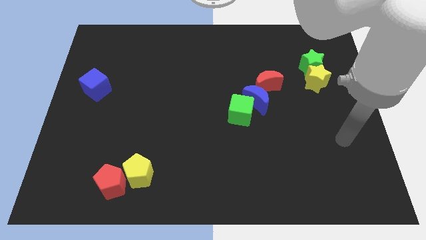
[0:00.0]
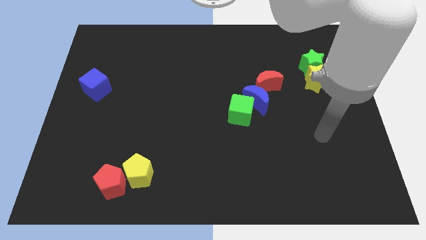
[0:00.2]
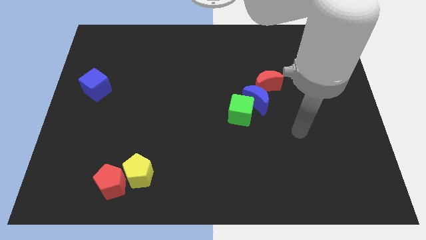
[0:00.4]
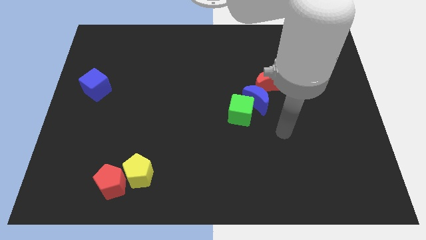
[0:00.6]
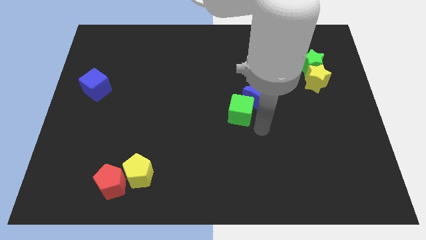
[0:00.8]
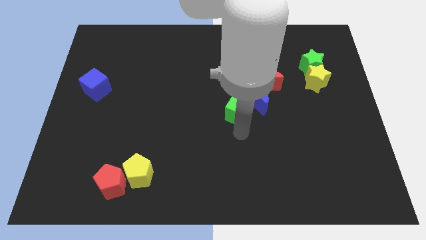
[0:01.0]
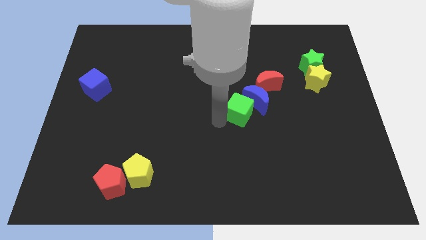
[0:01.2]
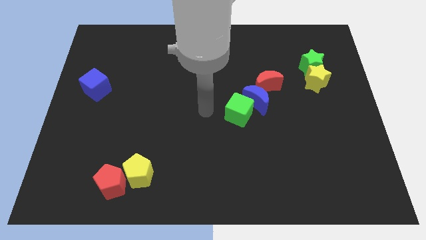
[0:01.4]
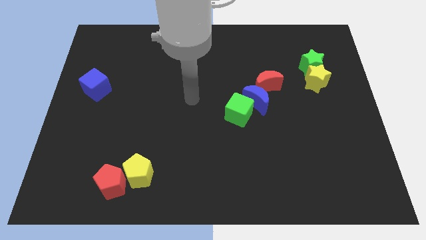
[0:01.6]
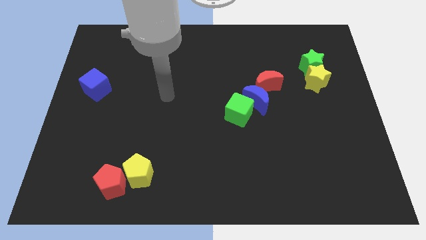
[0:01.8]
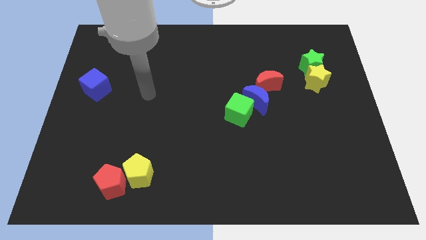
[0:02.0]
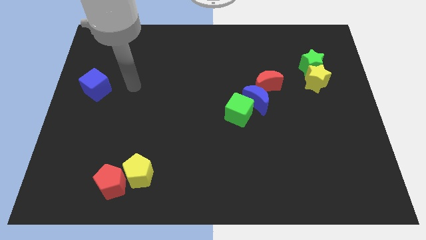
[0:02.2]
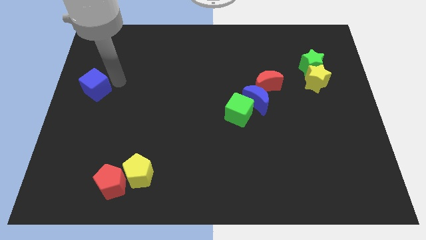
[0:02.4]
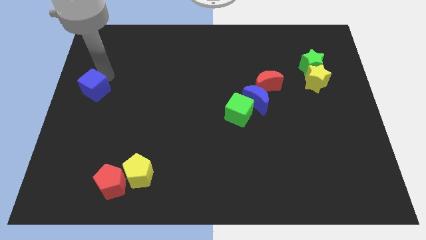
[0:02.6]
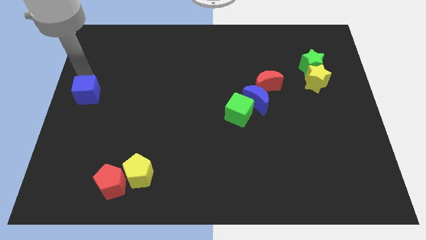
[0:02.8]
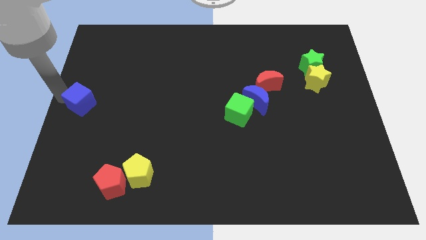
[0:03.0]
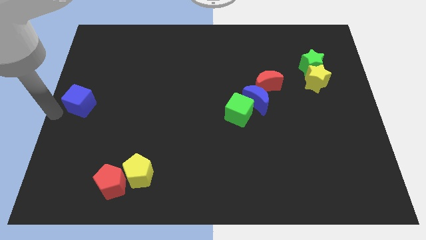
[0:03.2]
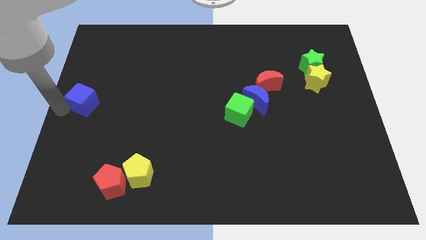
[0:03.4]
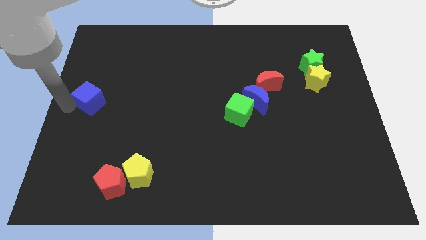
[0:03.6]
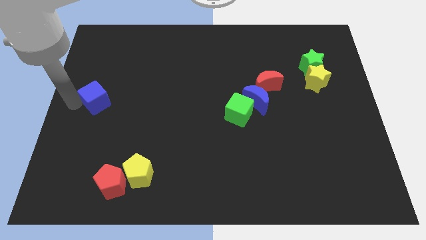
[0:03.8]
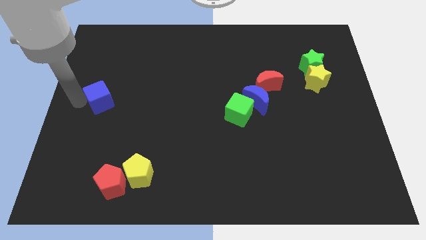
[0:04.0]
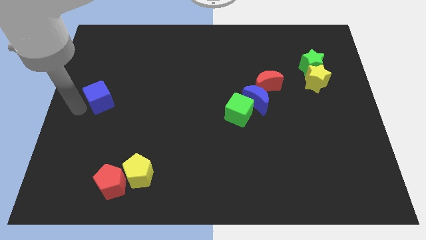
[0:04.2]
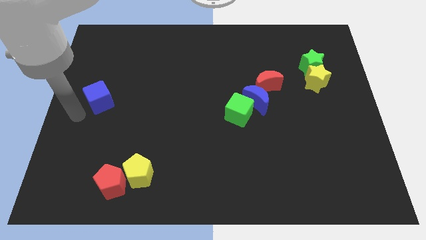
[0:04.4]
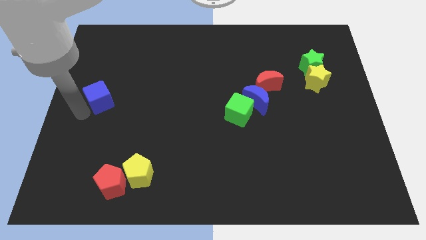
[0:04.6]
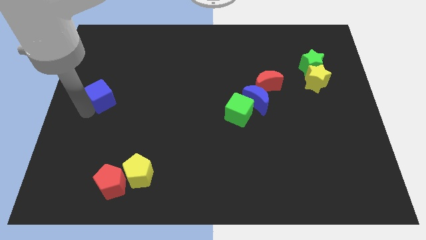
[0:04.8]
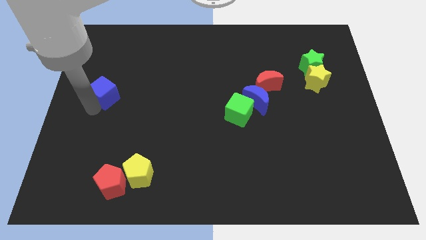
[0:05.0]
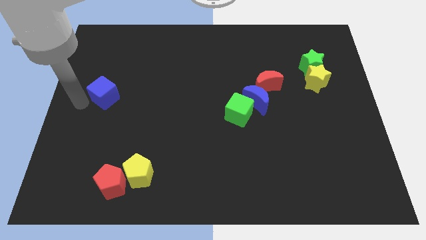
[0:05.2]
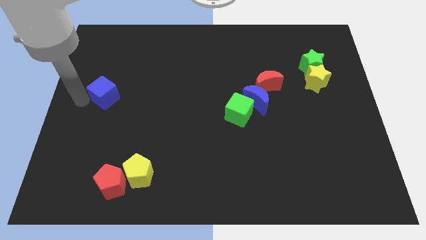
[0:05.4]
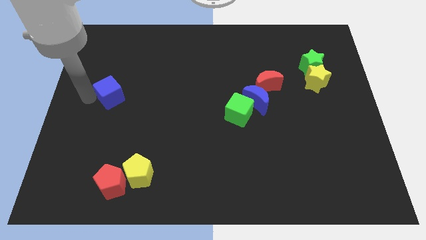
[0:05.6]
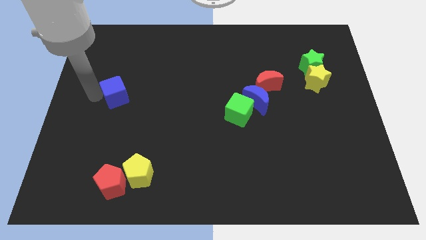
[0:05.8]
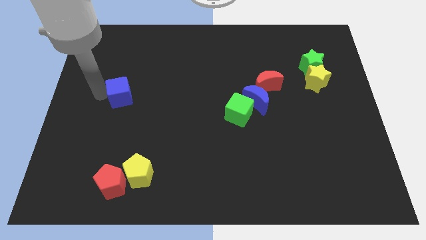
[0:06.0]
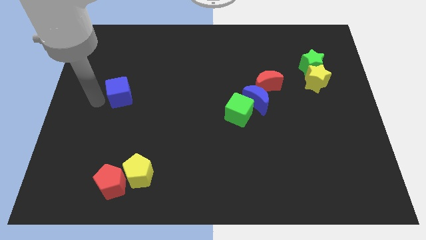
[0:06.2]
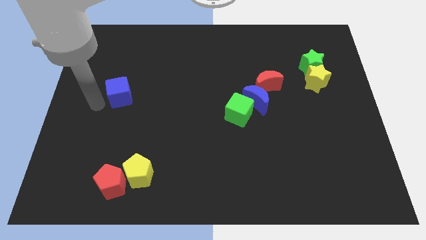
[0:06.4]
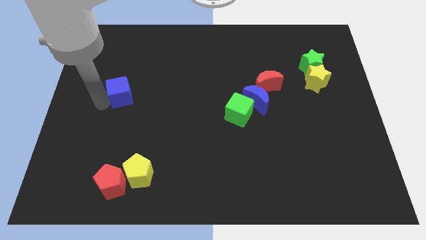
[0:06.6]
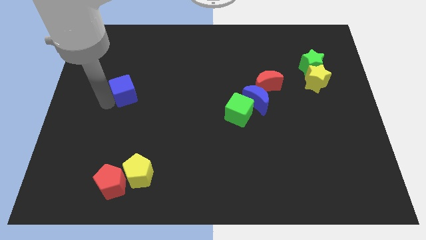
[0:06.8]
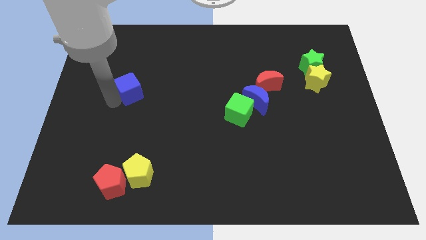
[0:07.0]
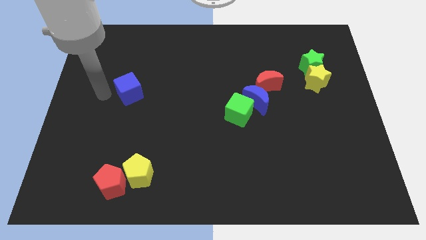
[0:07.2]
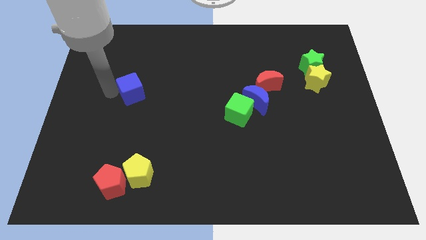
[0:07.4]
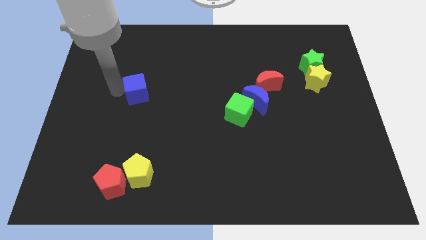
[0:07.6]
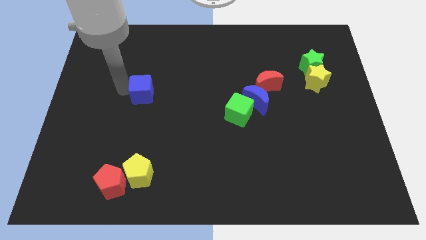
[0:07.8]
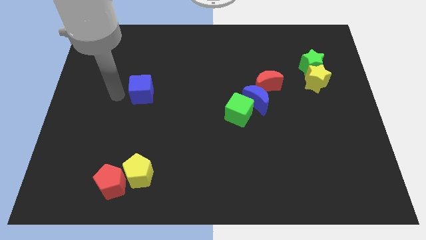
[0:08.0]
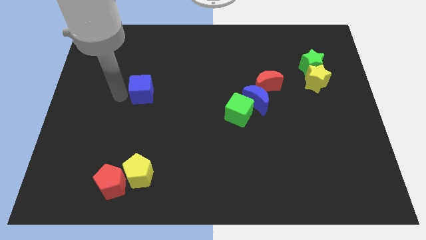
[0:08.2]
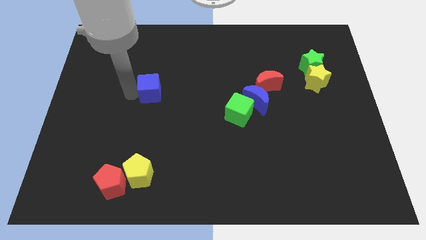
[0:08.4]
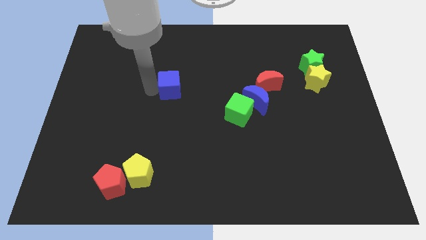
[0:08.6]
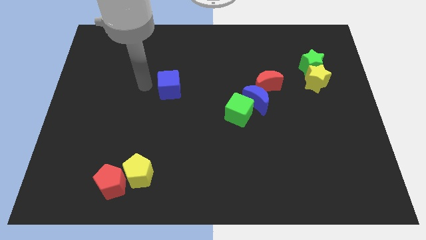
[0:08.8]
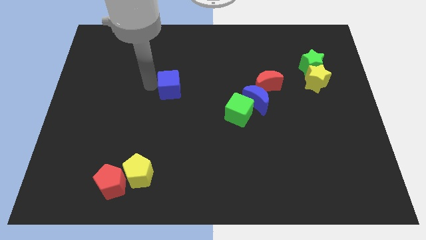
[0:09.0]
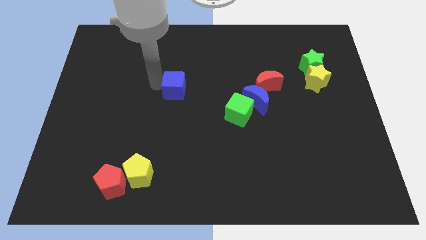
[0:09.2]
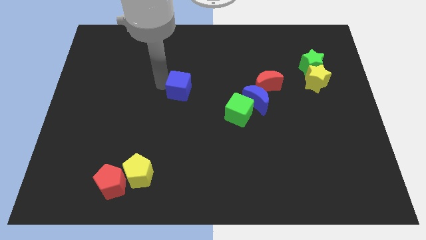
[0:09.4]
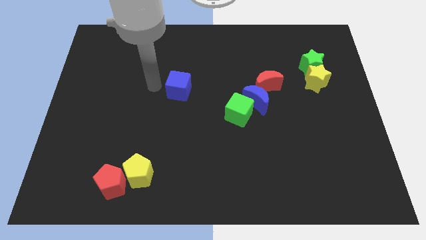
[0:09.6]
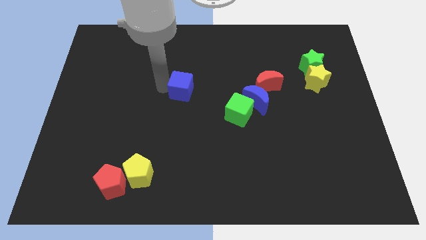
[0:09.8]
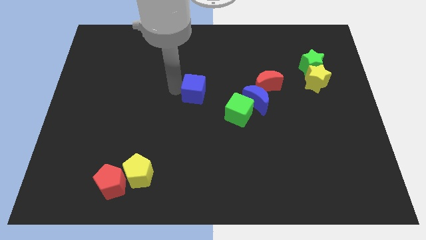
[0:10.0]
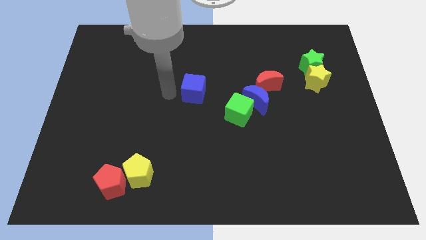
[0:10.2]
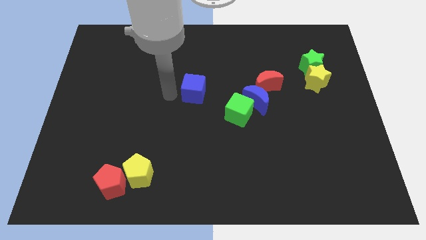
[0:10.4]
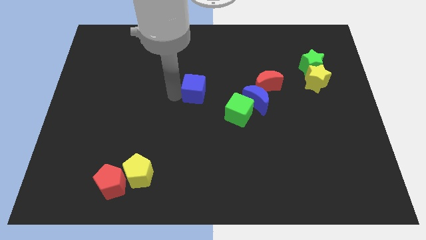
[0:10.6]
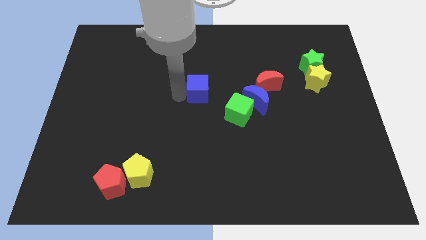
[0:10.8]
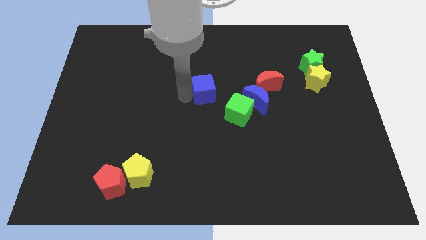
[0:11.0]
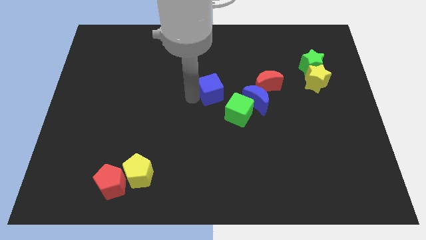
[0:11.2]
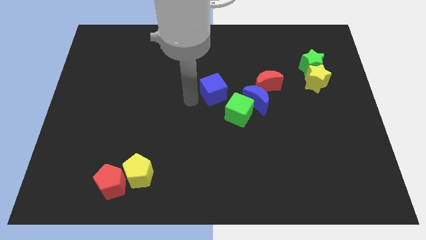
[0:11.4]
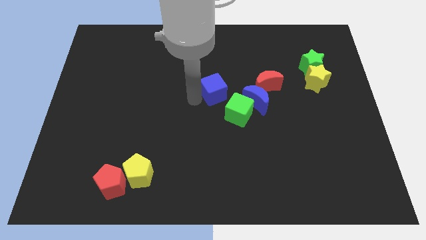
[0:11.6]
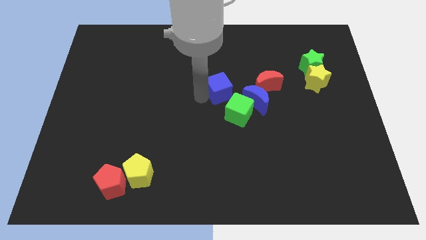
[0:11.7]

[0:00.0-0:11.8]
slide the blue cube to the top left of the blue moon

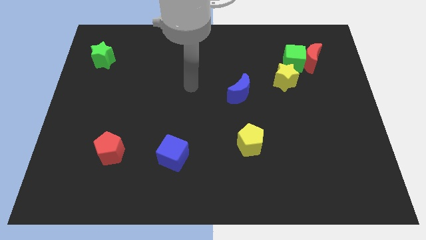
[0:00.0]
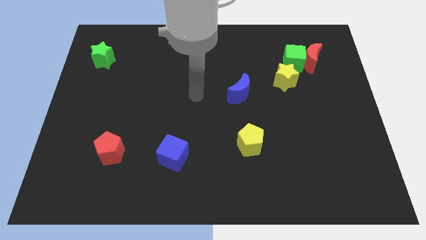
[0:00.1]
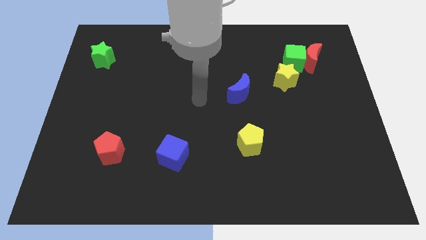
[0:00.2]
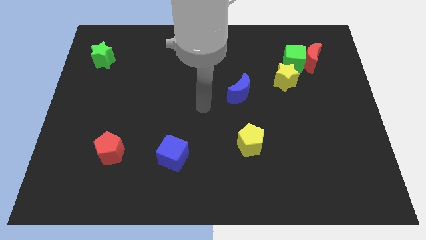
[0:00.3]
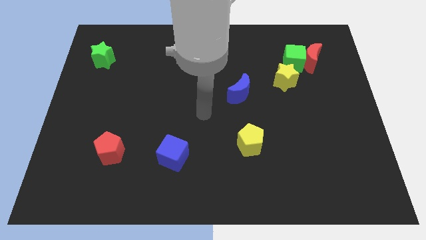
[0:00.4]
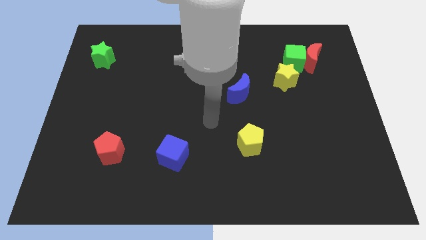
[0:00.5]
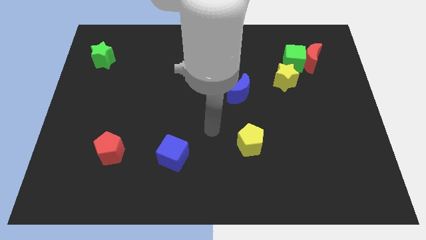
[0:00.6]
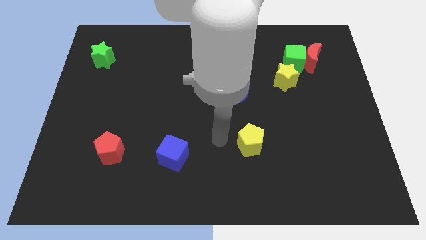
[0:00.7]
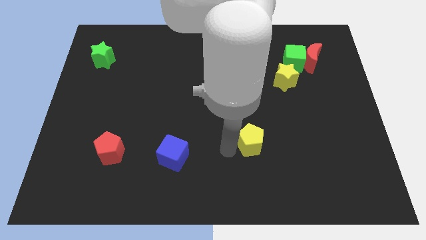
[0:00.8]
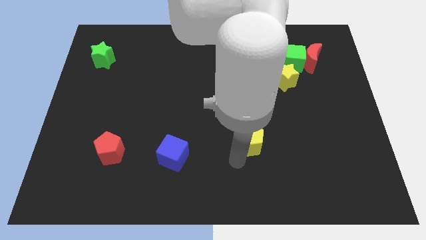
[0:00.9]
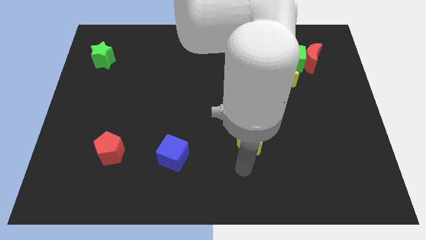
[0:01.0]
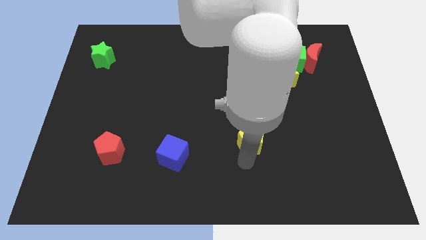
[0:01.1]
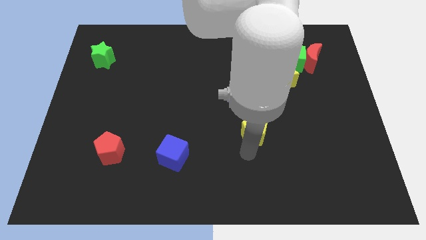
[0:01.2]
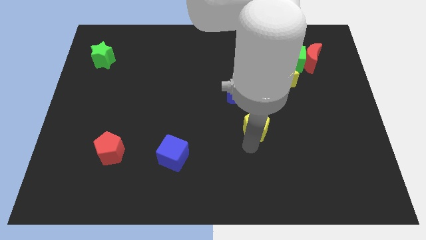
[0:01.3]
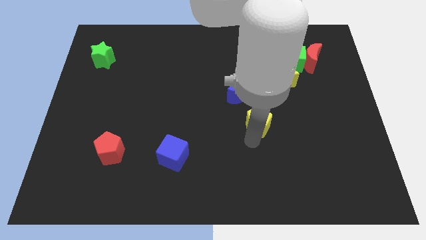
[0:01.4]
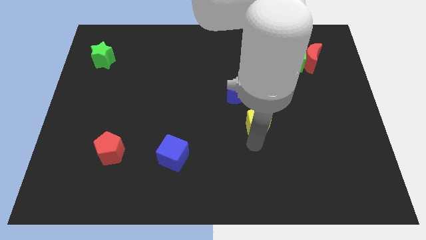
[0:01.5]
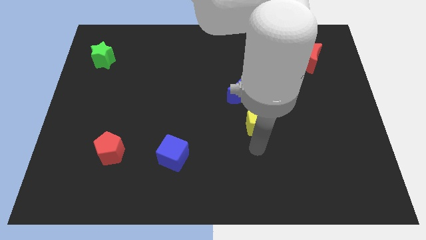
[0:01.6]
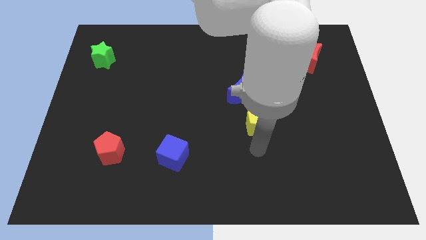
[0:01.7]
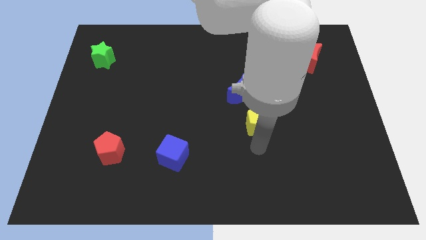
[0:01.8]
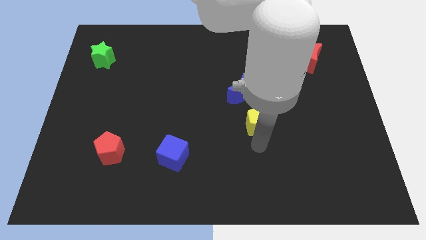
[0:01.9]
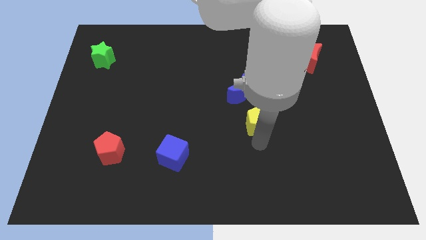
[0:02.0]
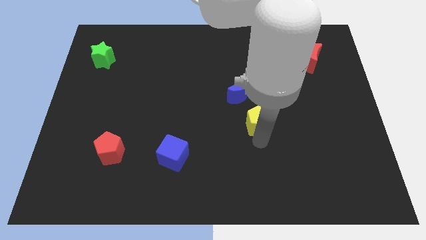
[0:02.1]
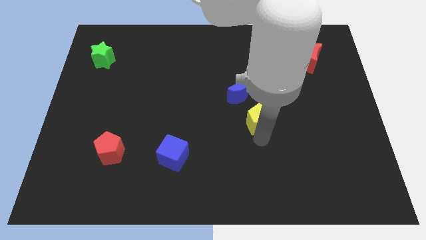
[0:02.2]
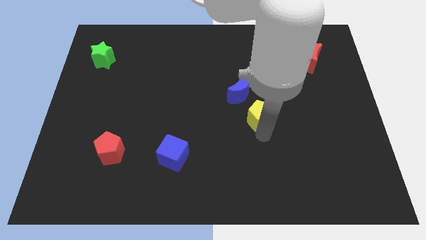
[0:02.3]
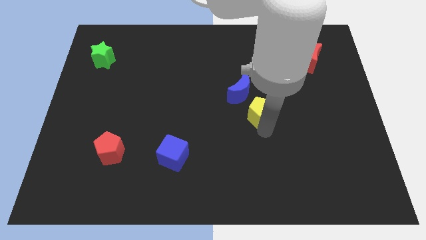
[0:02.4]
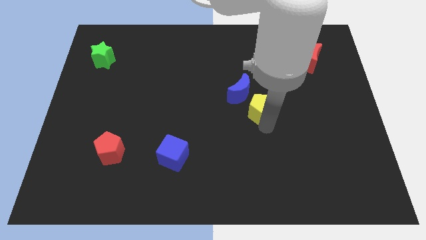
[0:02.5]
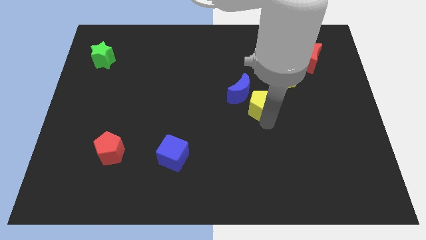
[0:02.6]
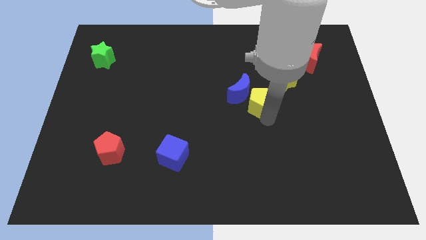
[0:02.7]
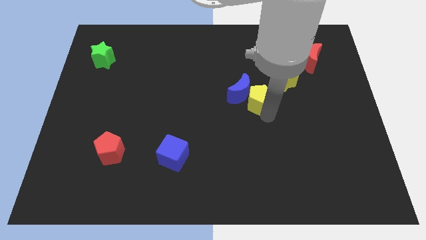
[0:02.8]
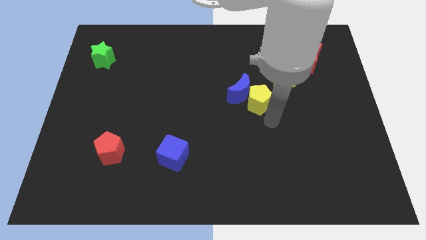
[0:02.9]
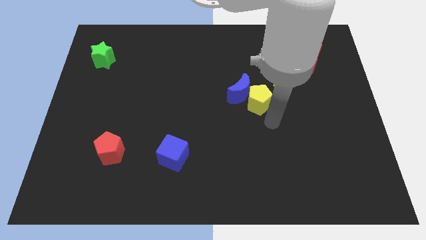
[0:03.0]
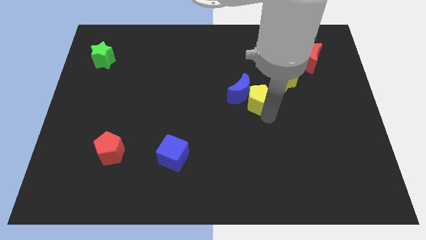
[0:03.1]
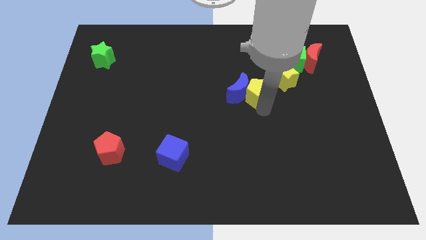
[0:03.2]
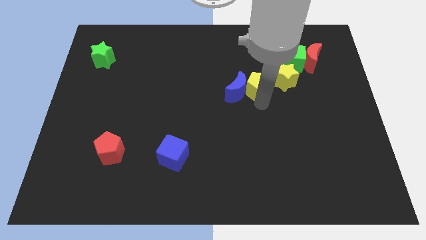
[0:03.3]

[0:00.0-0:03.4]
move the yellow pentagon just left of the yellow star
